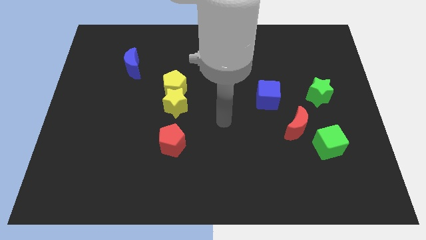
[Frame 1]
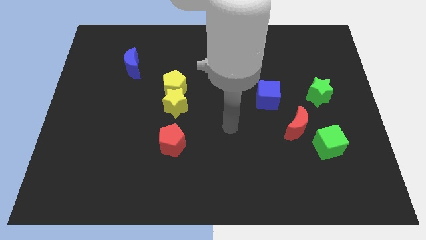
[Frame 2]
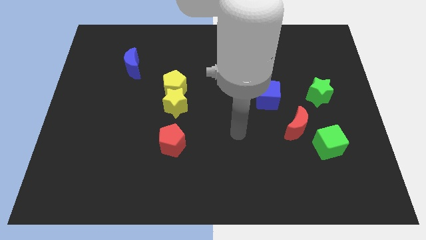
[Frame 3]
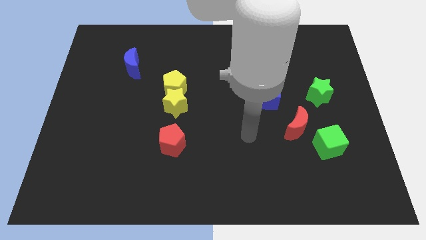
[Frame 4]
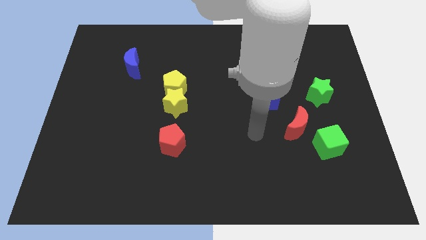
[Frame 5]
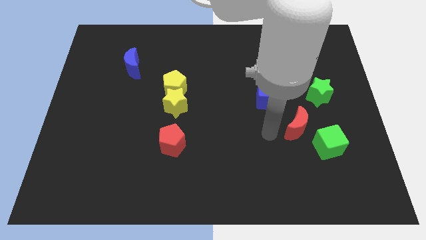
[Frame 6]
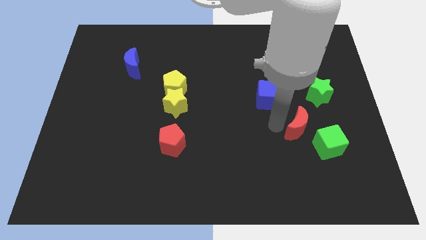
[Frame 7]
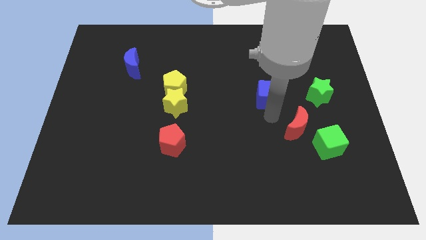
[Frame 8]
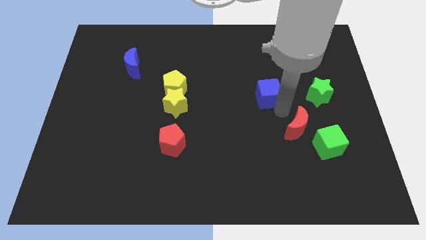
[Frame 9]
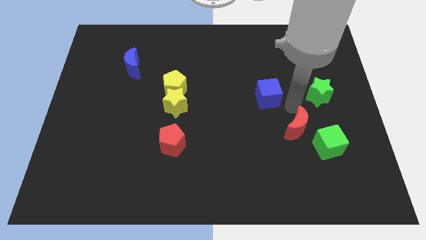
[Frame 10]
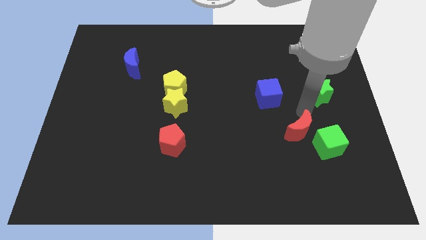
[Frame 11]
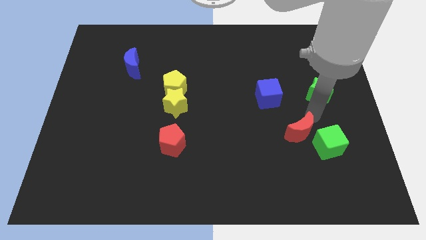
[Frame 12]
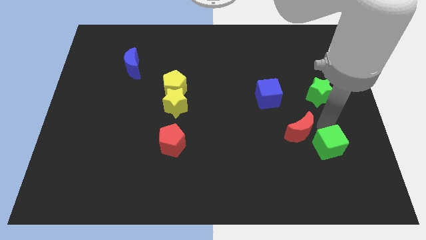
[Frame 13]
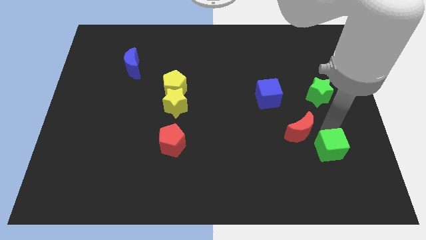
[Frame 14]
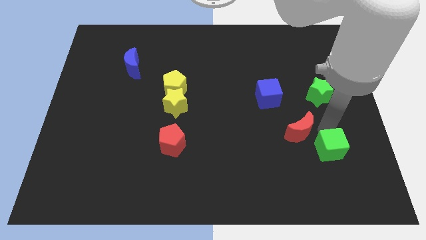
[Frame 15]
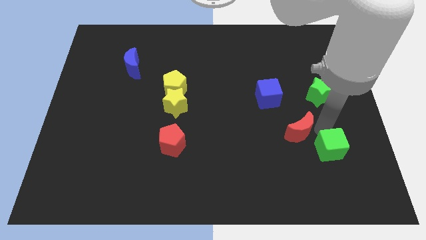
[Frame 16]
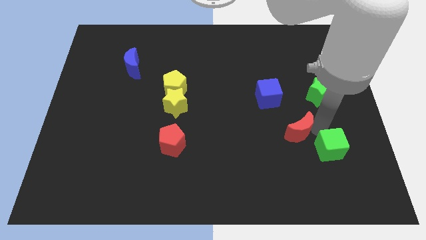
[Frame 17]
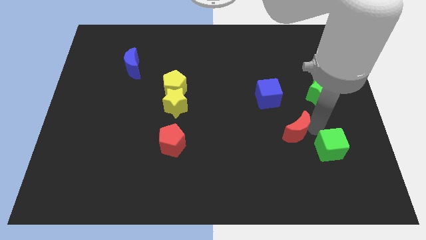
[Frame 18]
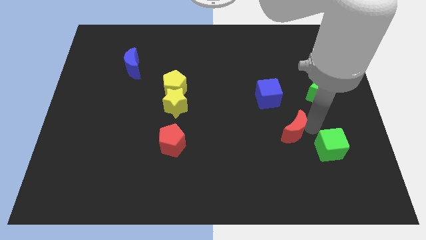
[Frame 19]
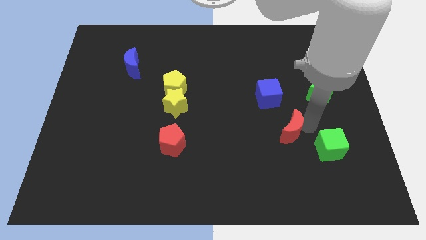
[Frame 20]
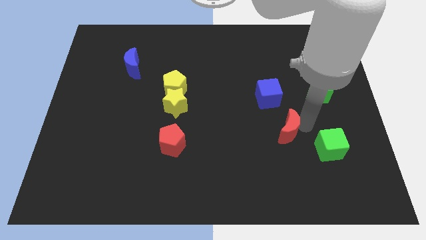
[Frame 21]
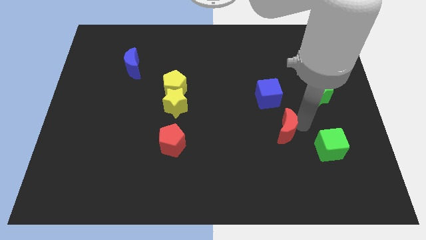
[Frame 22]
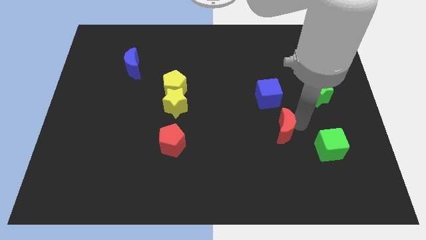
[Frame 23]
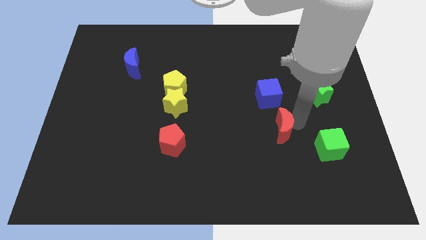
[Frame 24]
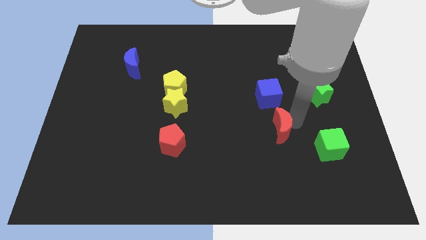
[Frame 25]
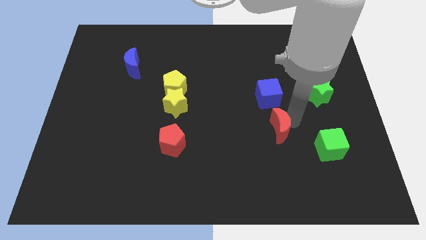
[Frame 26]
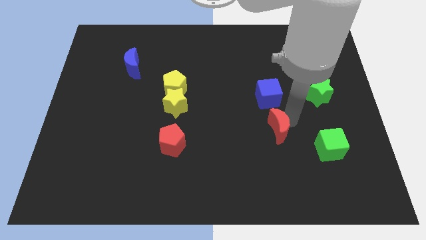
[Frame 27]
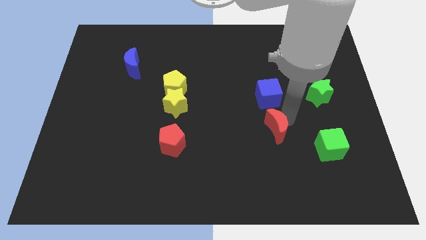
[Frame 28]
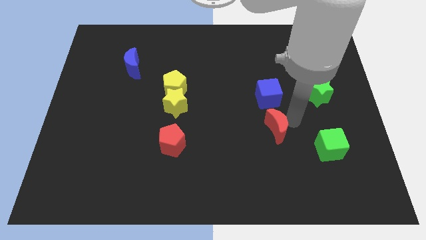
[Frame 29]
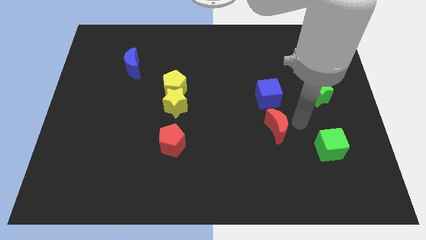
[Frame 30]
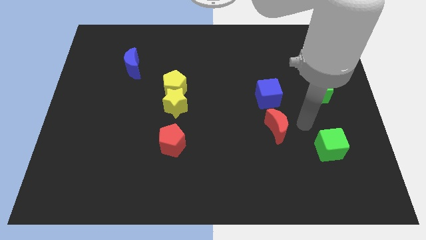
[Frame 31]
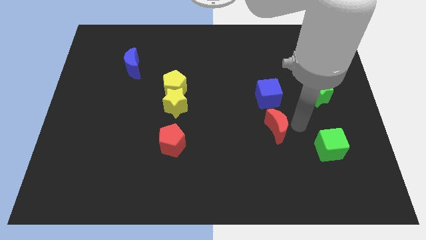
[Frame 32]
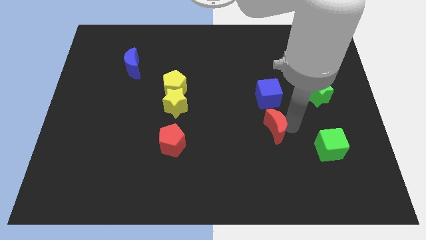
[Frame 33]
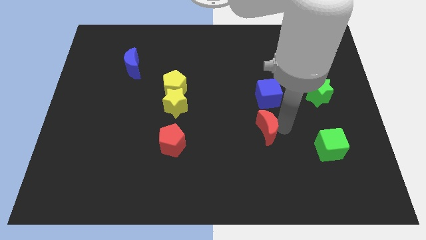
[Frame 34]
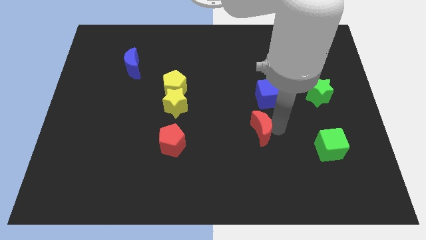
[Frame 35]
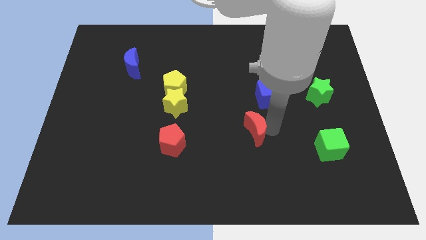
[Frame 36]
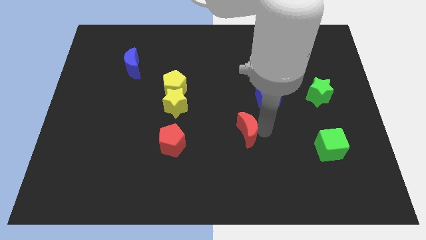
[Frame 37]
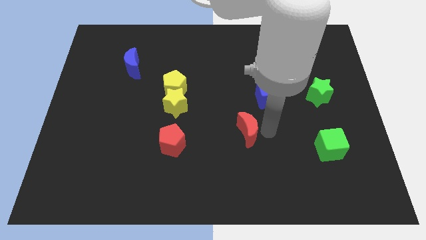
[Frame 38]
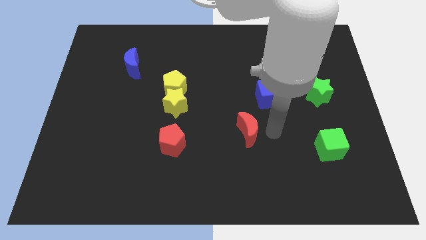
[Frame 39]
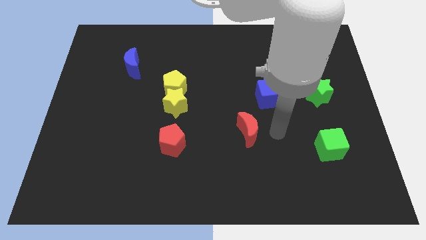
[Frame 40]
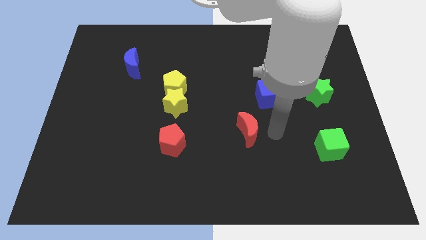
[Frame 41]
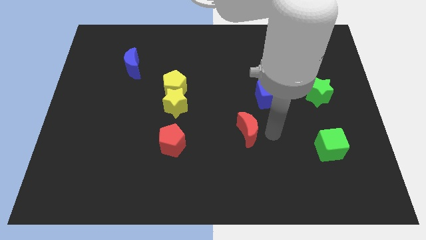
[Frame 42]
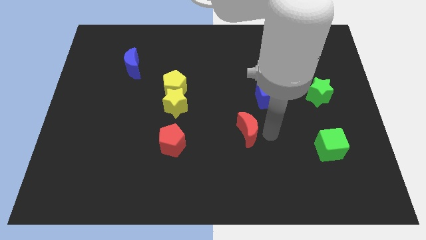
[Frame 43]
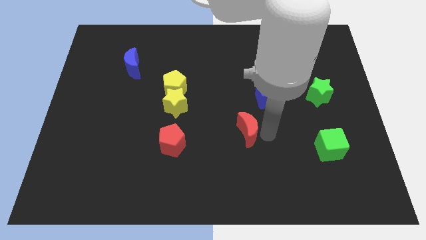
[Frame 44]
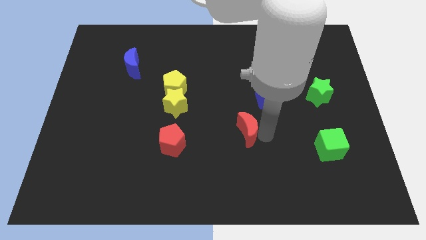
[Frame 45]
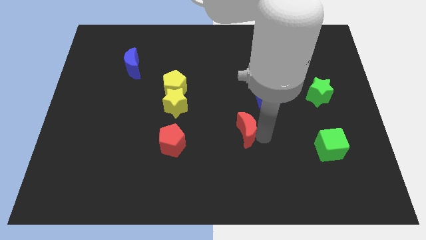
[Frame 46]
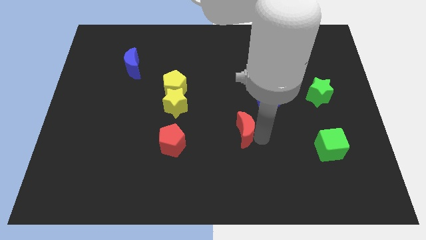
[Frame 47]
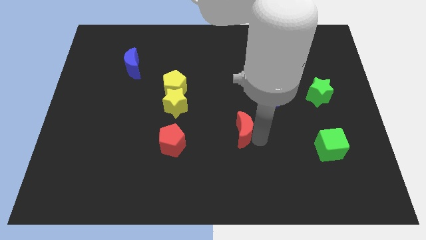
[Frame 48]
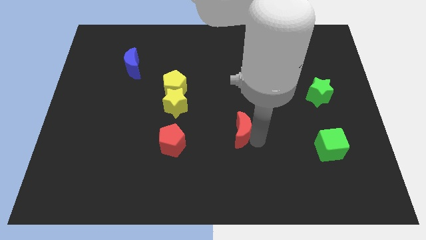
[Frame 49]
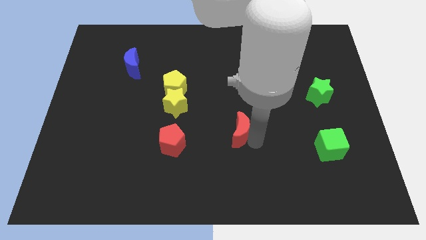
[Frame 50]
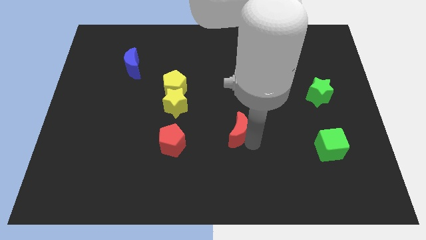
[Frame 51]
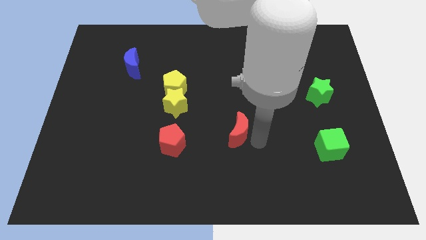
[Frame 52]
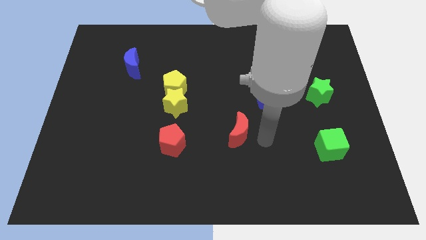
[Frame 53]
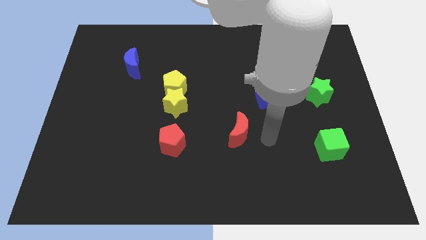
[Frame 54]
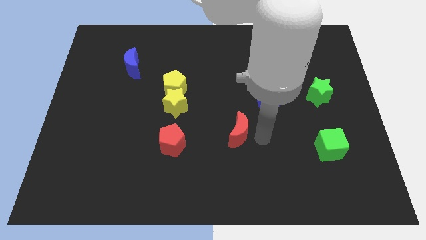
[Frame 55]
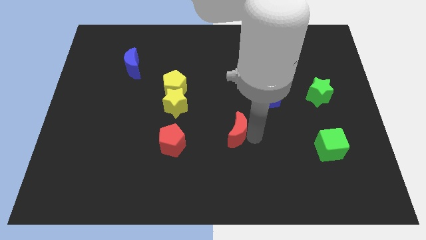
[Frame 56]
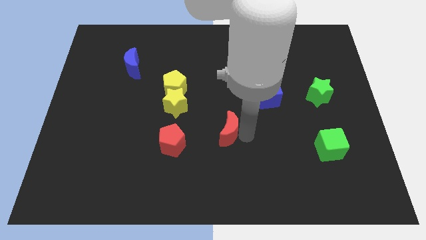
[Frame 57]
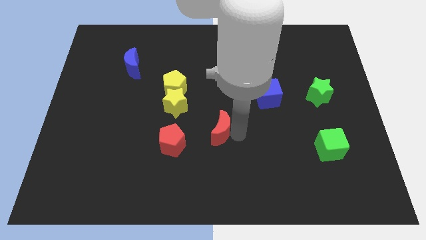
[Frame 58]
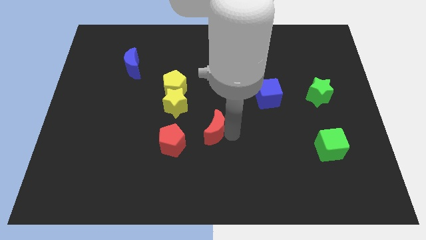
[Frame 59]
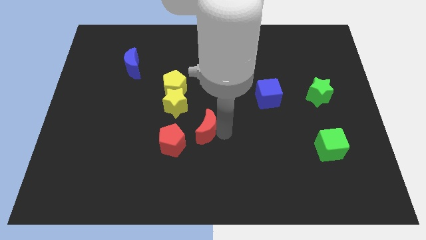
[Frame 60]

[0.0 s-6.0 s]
move the red moon left

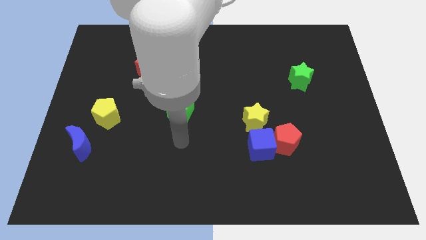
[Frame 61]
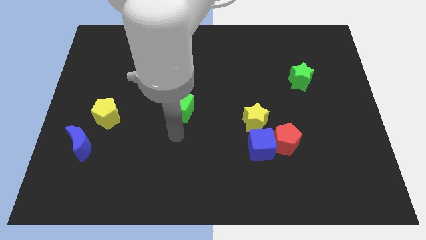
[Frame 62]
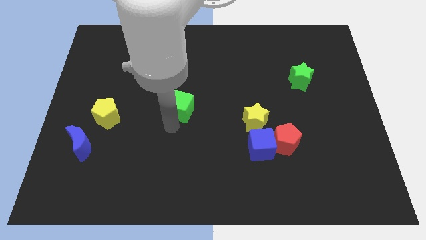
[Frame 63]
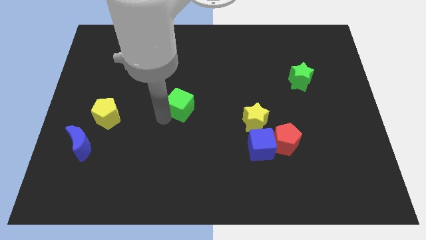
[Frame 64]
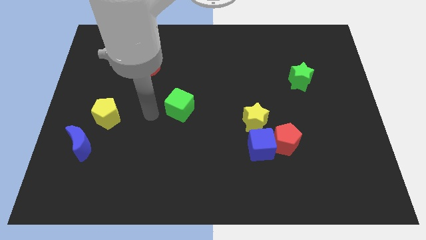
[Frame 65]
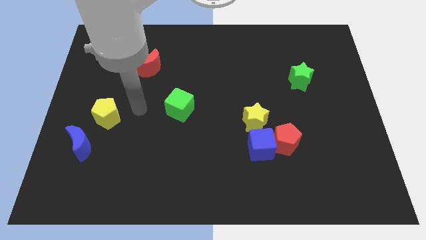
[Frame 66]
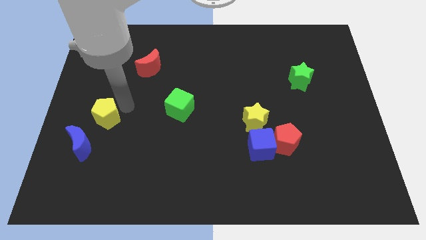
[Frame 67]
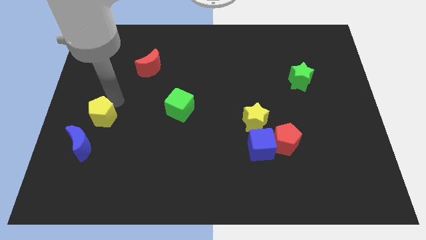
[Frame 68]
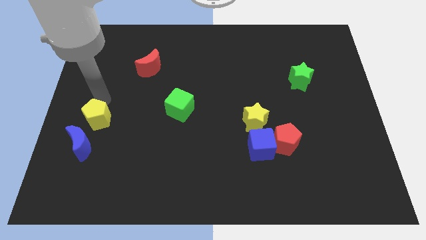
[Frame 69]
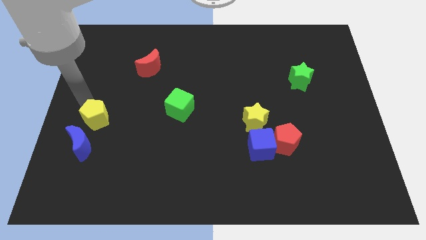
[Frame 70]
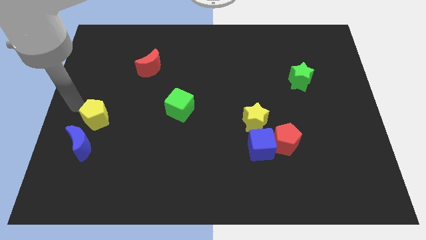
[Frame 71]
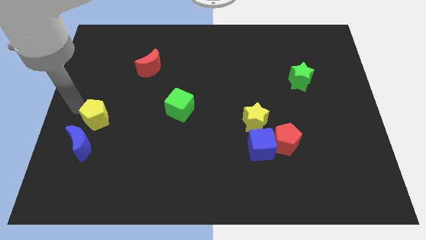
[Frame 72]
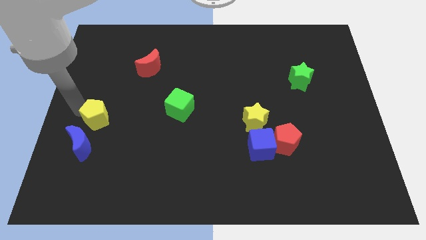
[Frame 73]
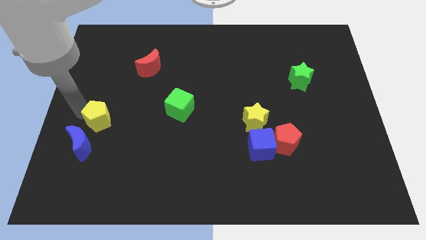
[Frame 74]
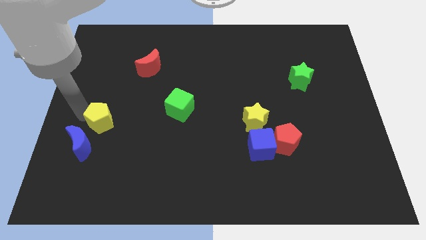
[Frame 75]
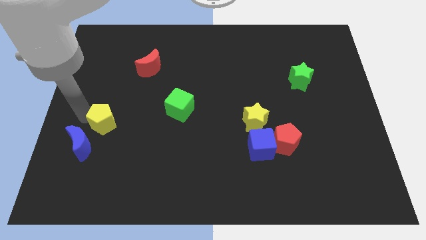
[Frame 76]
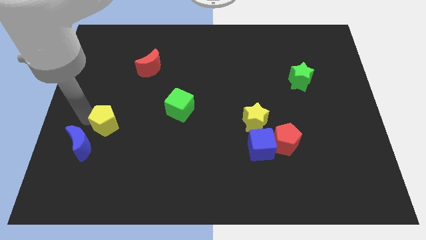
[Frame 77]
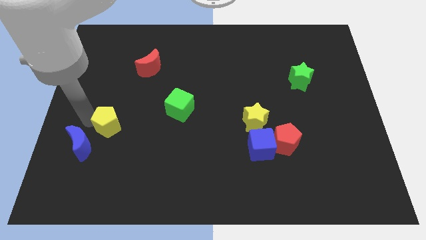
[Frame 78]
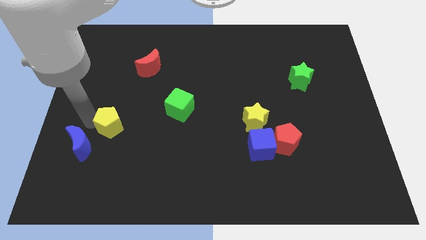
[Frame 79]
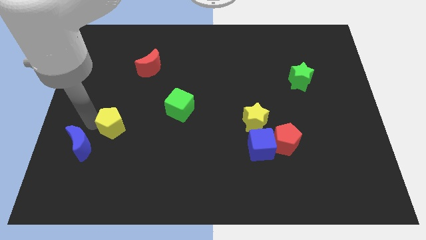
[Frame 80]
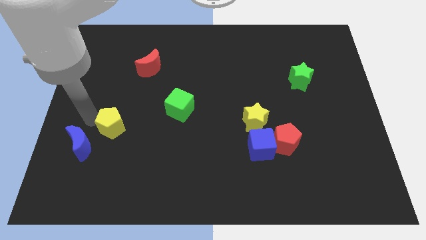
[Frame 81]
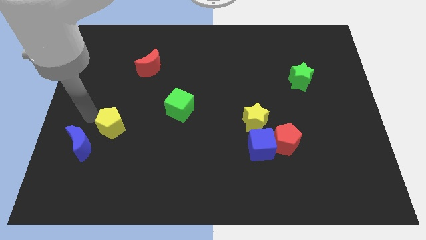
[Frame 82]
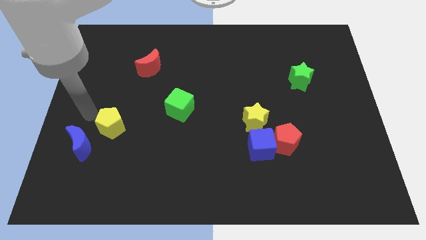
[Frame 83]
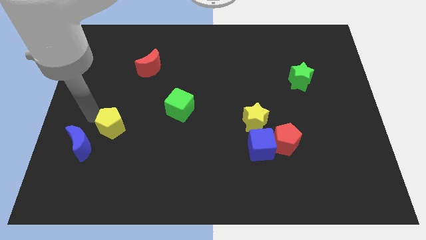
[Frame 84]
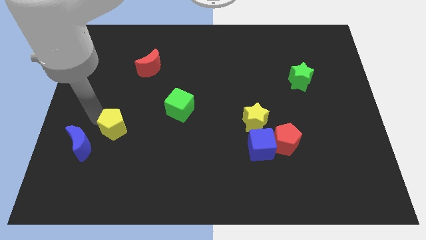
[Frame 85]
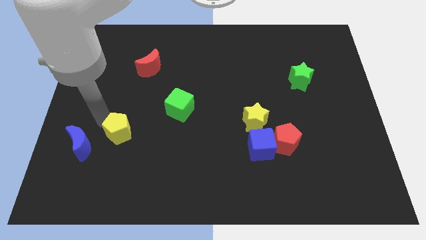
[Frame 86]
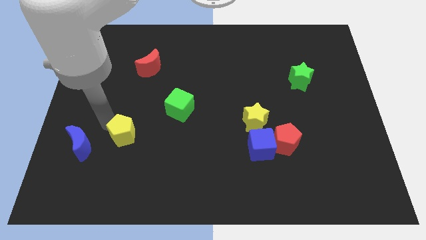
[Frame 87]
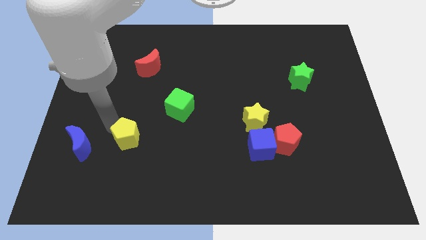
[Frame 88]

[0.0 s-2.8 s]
push the yellow pentagon diagonally downwards and to the right a little
